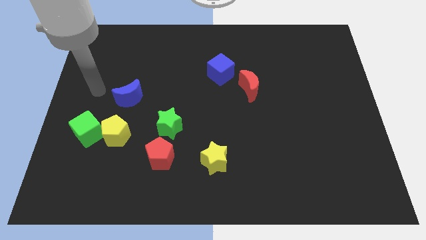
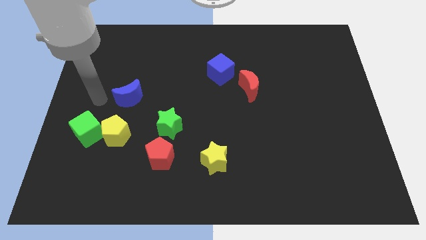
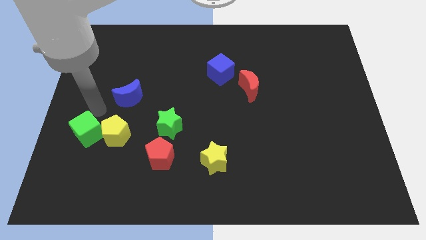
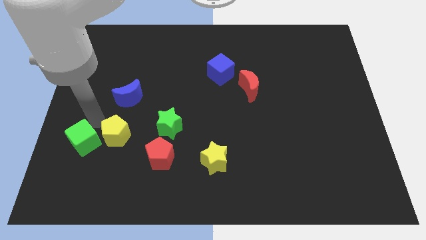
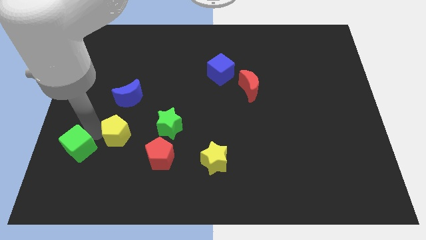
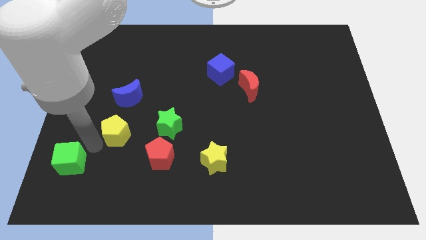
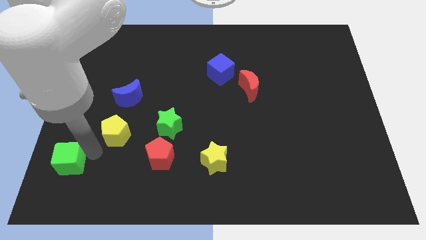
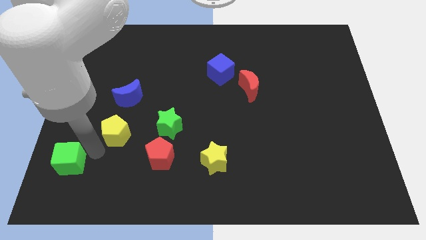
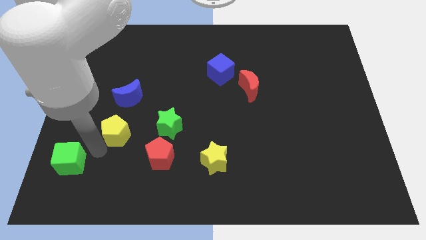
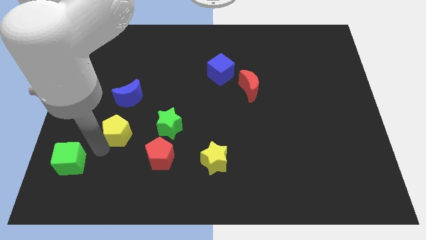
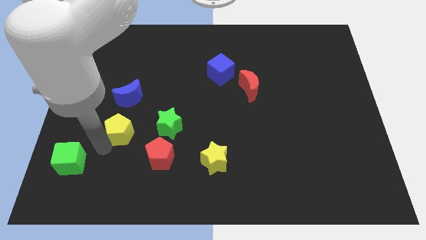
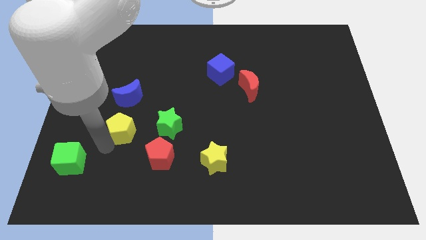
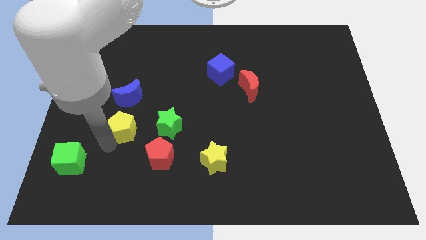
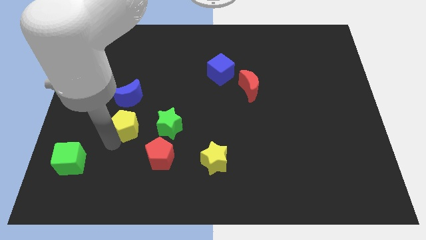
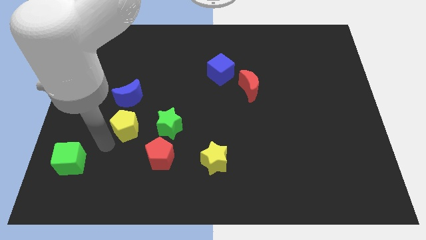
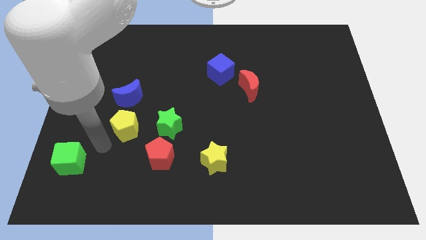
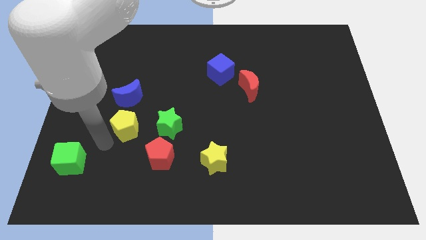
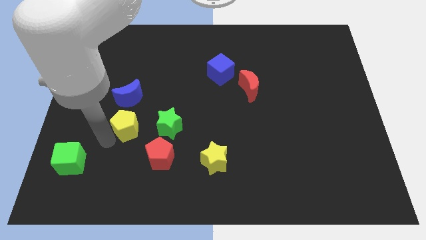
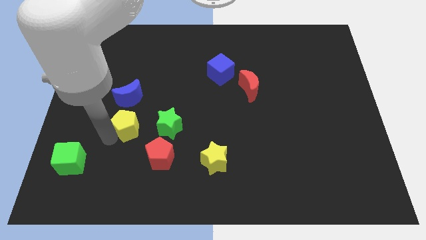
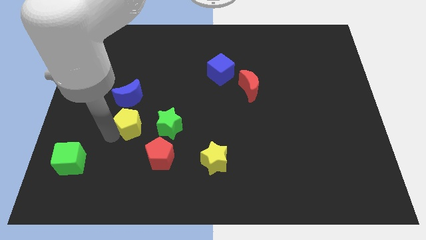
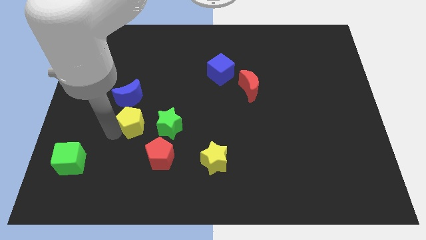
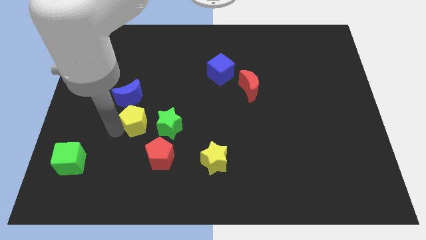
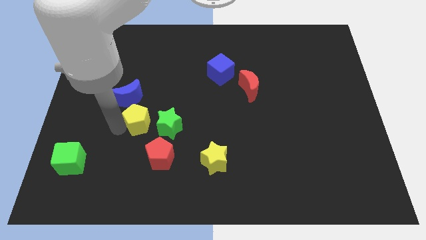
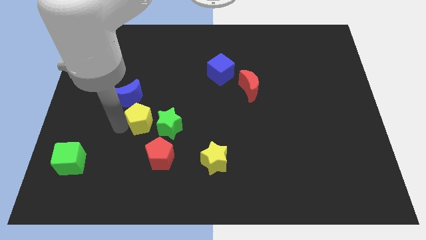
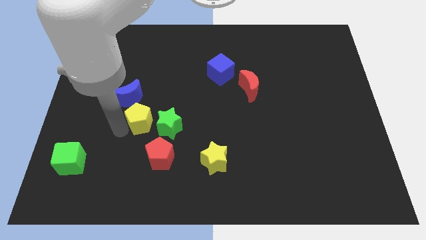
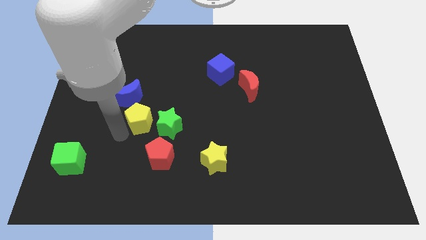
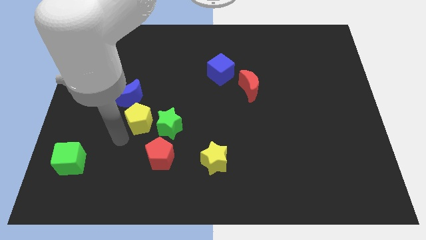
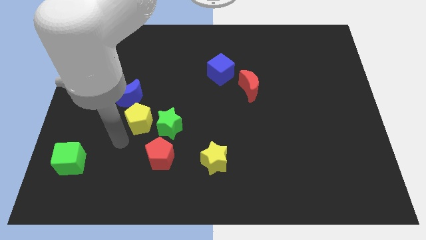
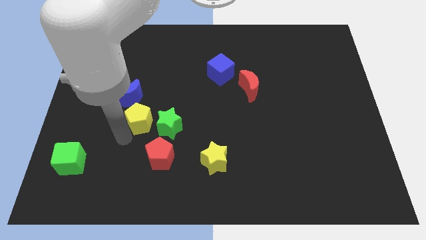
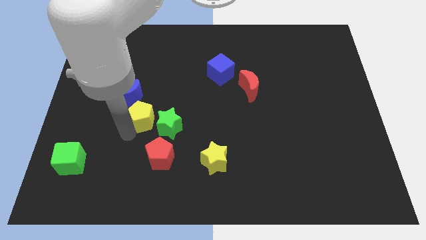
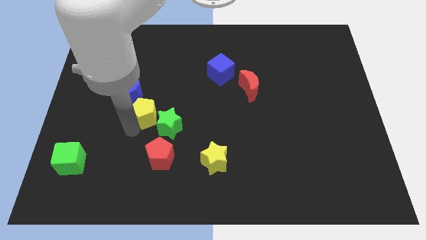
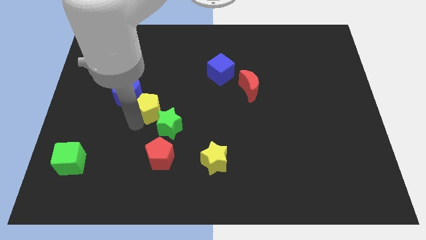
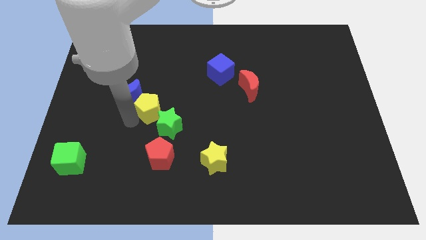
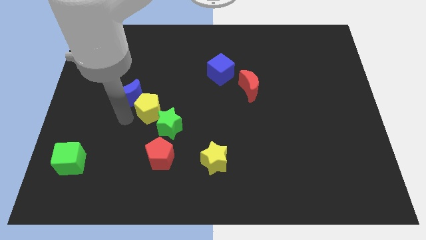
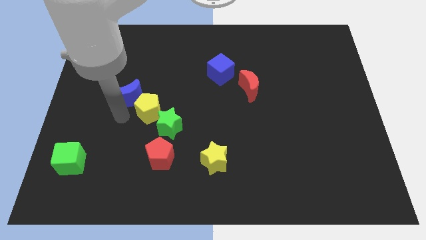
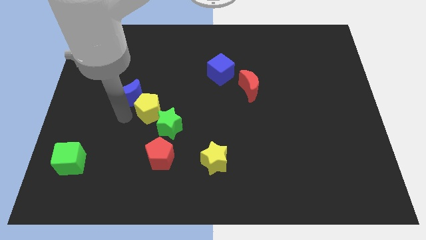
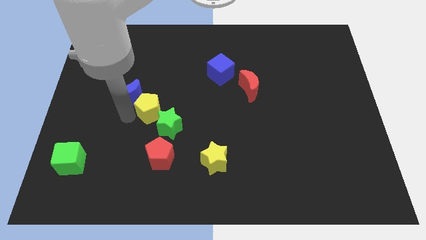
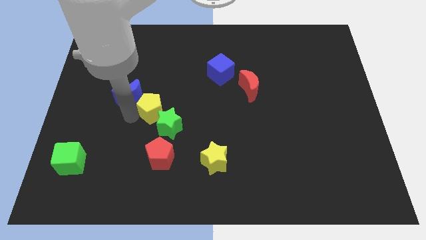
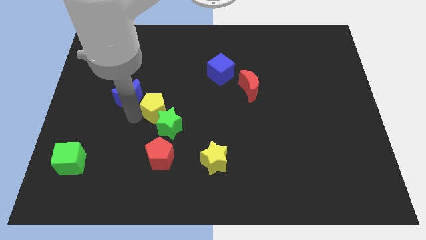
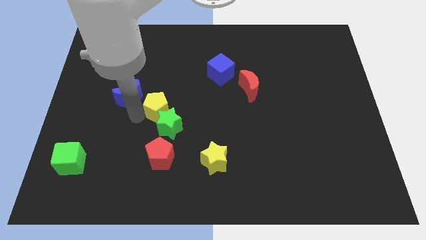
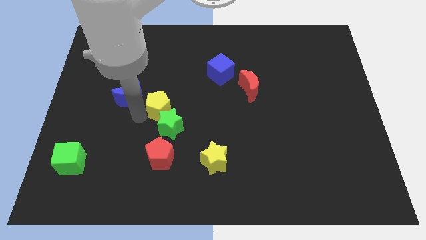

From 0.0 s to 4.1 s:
push the yellow pentagon somewhat right

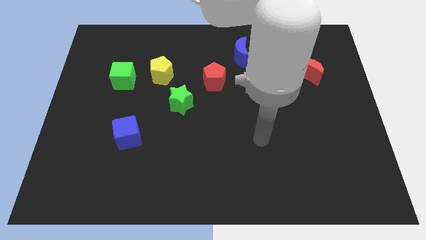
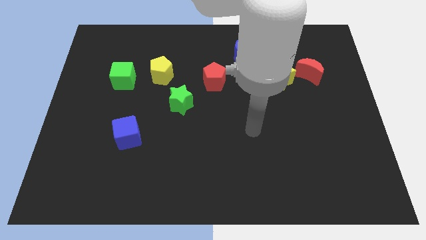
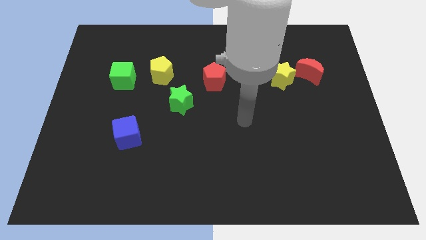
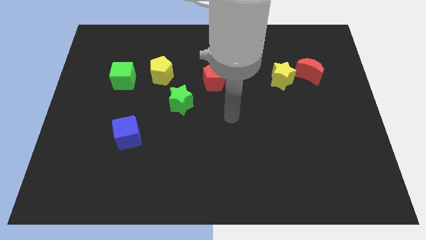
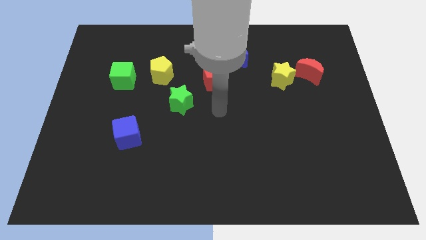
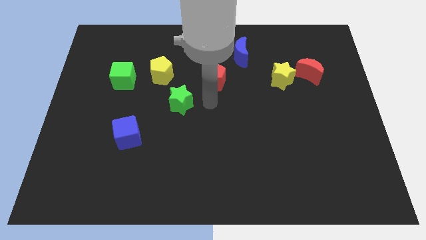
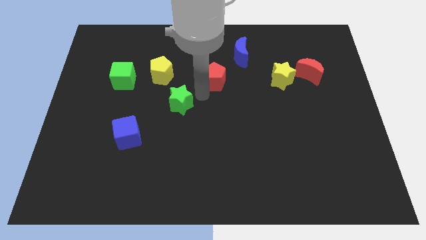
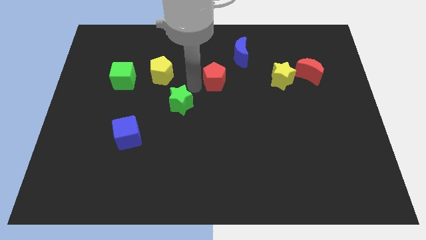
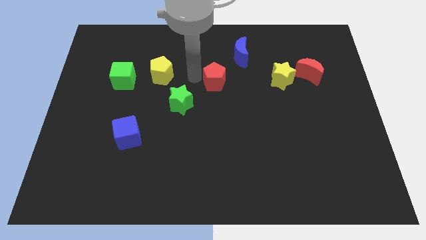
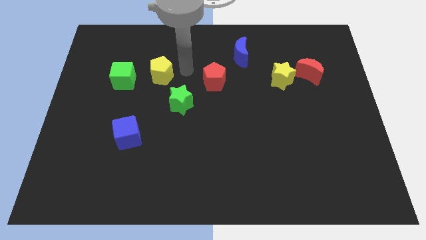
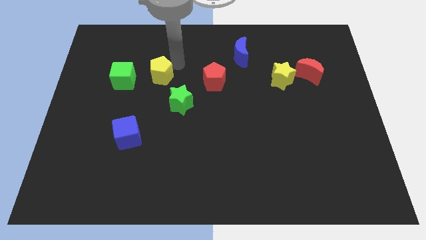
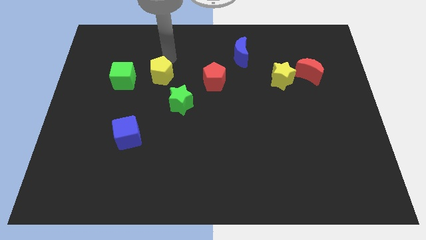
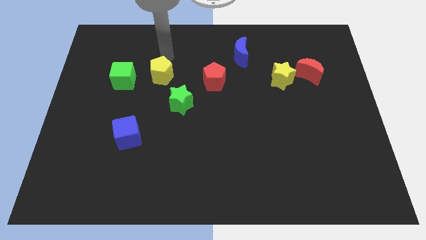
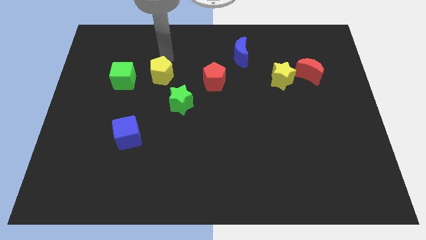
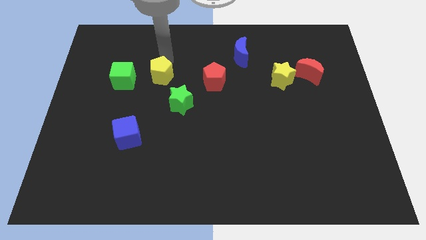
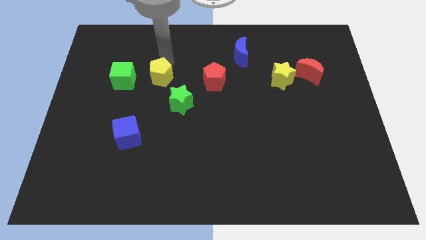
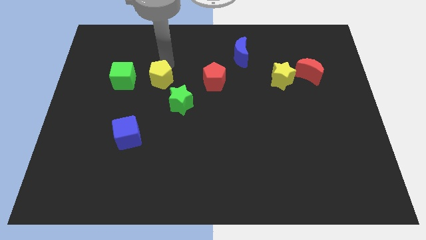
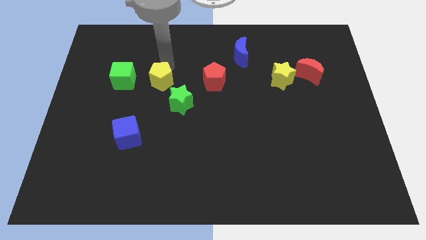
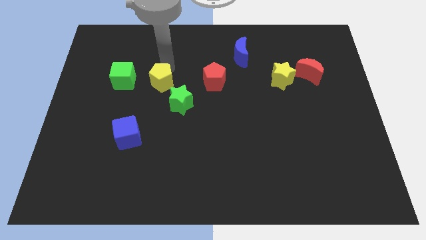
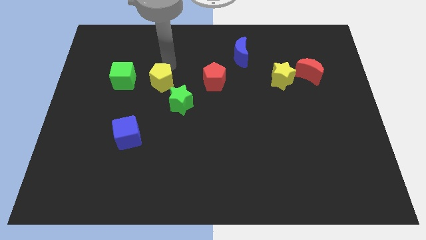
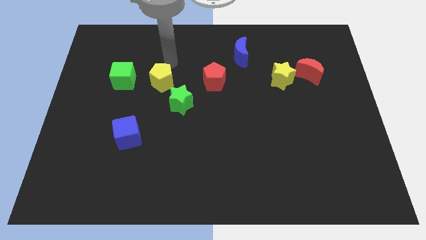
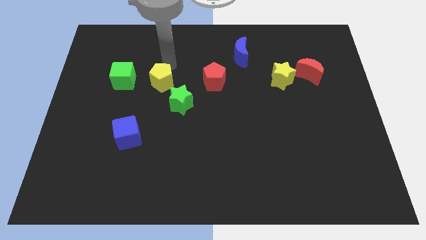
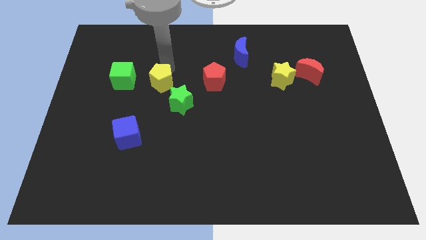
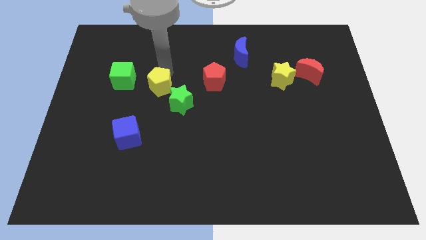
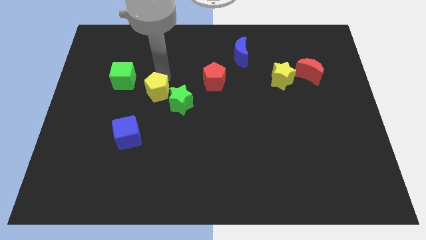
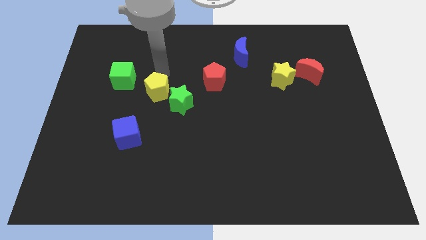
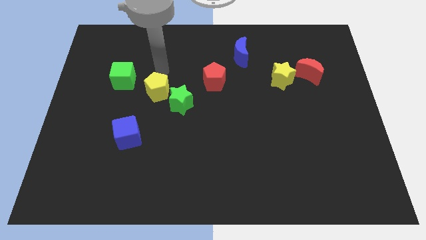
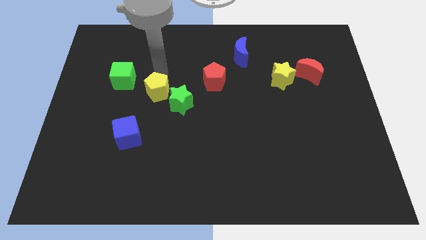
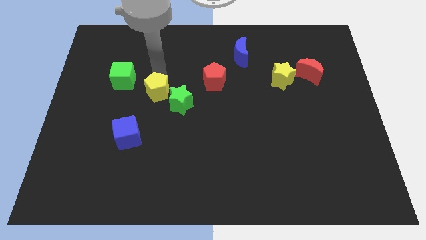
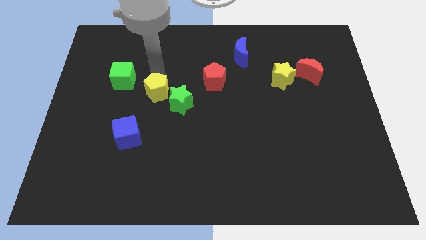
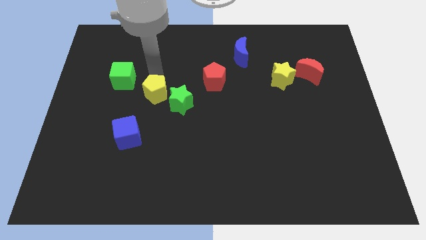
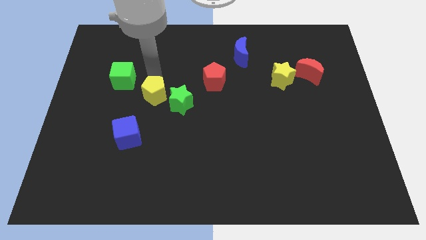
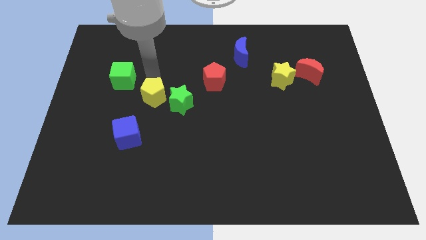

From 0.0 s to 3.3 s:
slide the yellow pentagon downwards a little bit

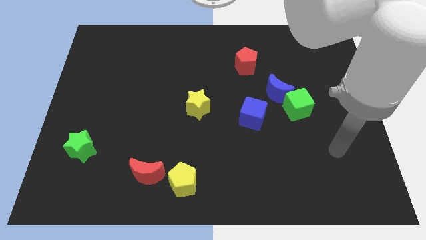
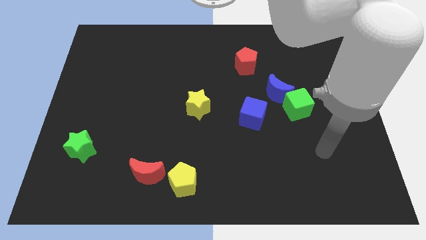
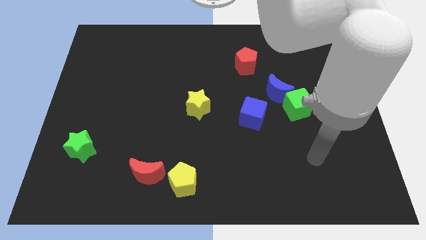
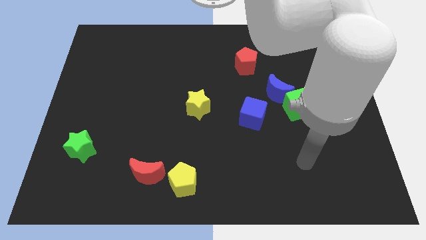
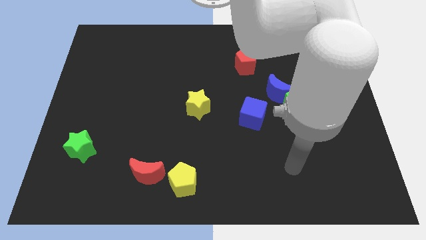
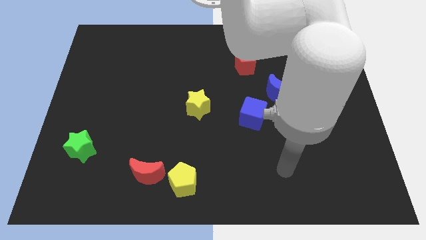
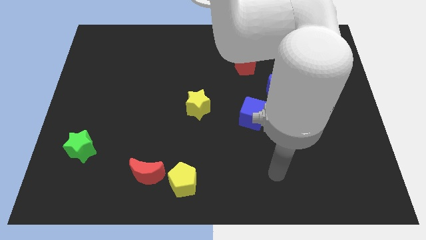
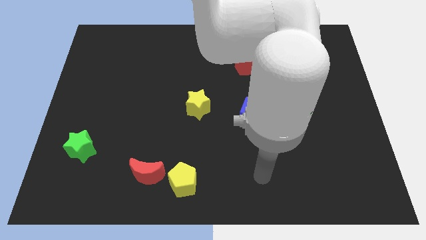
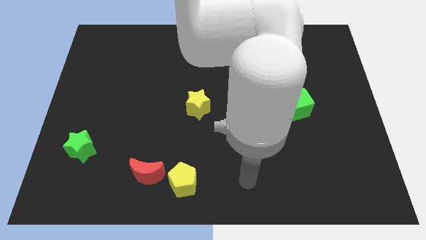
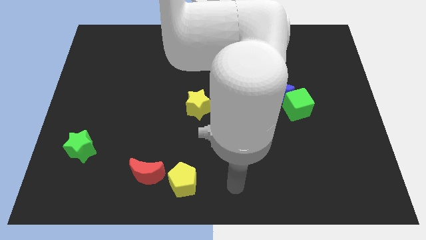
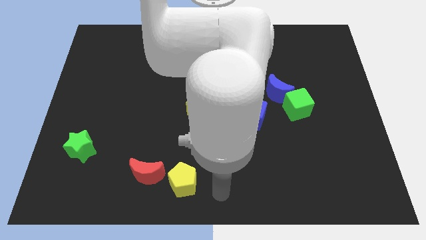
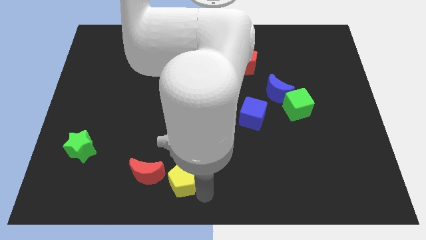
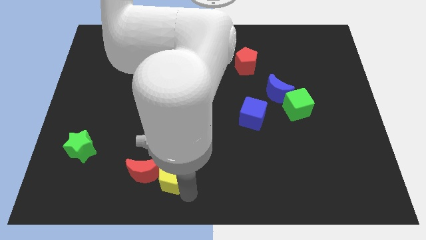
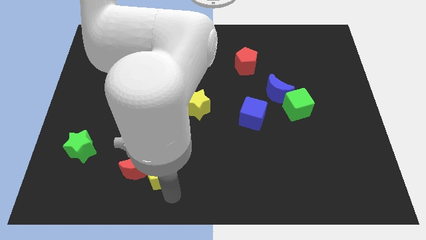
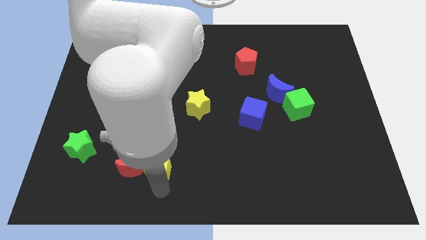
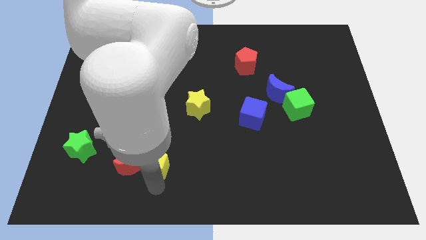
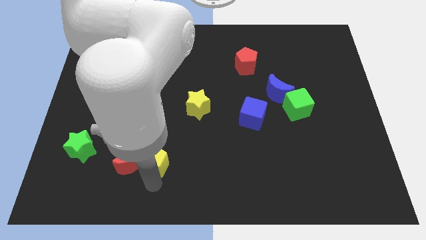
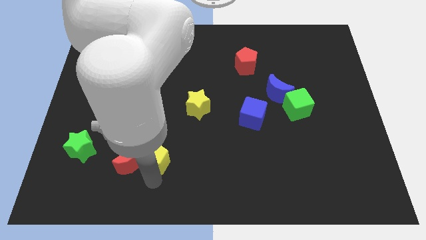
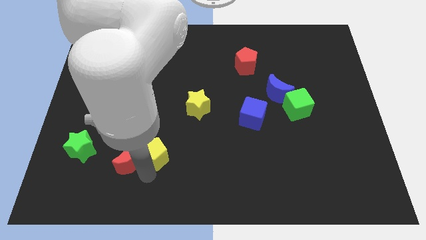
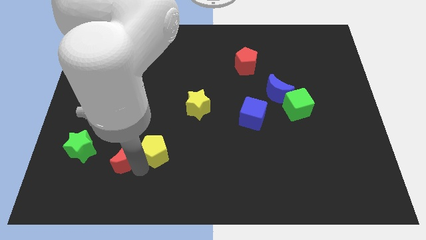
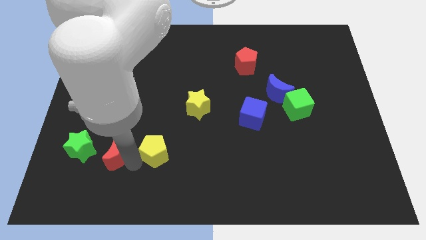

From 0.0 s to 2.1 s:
move the red moon a little diagonally up and left
